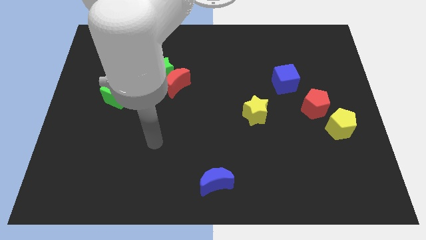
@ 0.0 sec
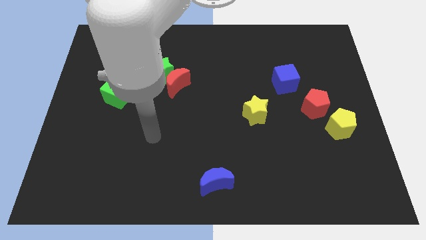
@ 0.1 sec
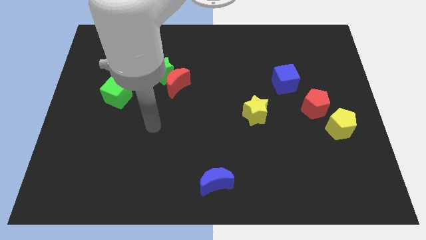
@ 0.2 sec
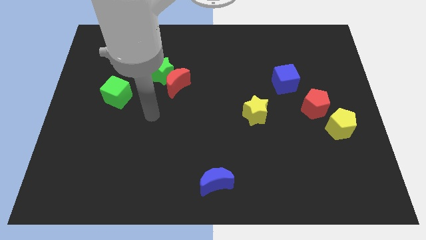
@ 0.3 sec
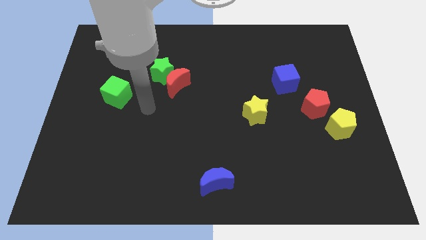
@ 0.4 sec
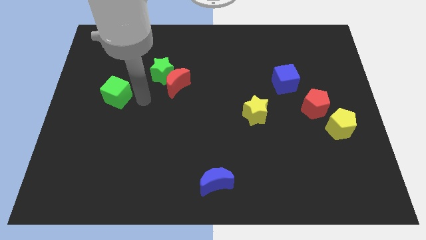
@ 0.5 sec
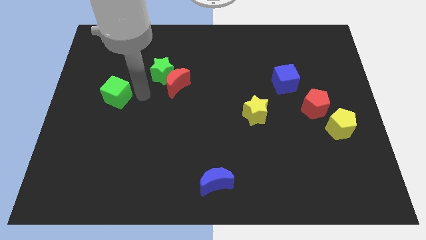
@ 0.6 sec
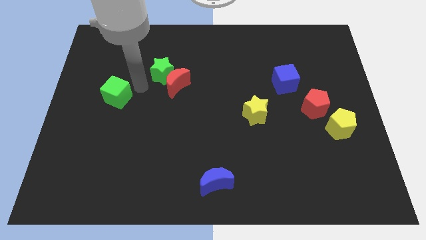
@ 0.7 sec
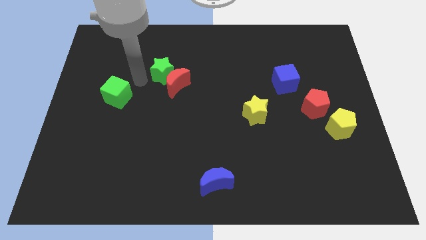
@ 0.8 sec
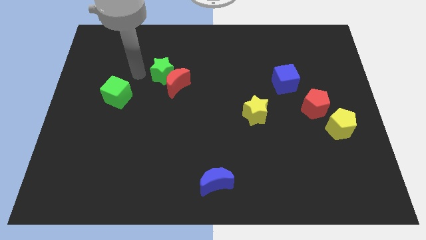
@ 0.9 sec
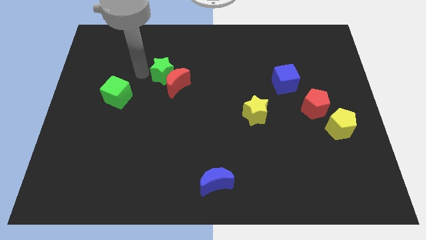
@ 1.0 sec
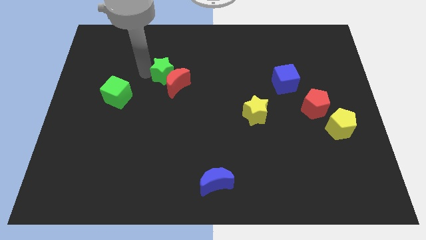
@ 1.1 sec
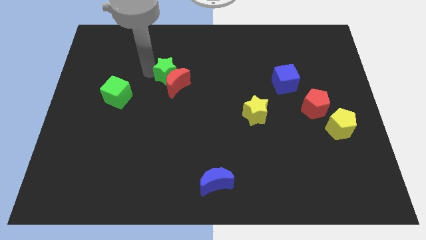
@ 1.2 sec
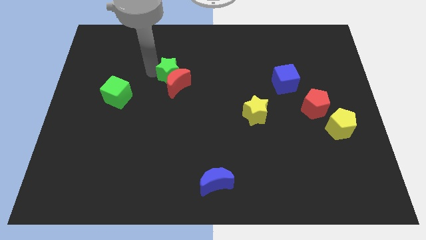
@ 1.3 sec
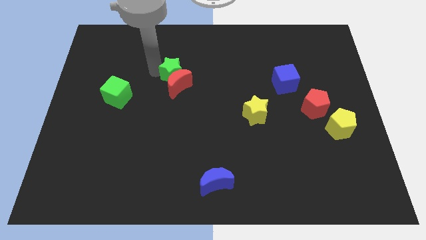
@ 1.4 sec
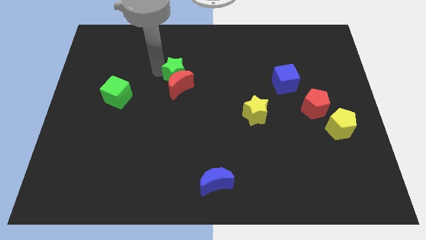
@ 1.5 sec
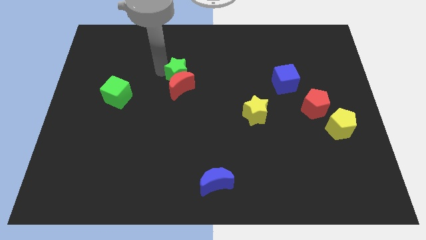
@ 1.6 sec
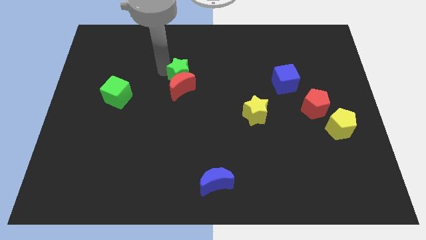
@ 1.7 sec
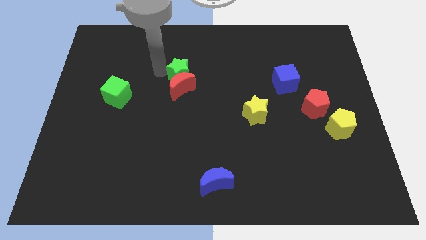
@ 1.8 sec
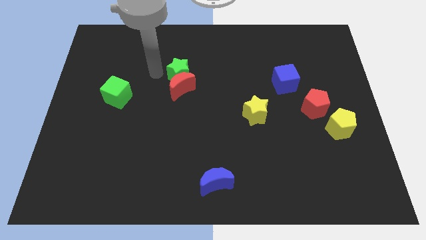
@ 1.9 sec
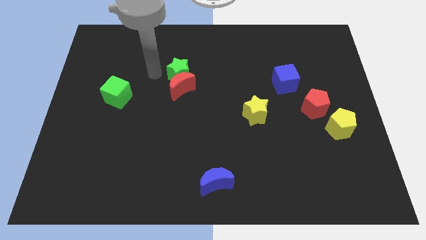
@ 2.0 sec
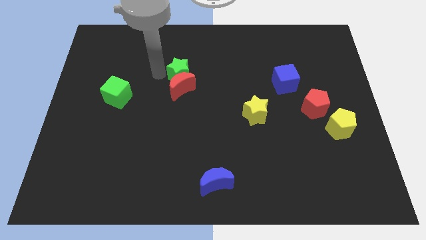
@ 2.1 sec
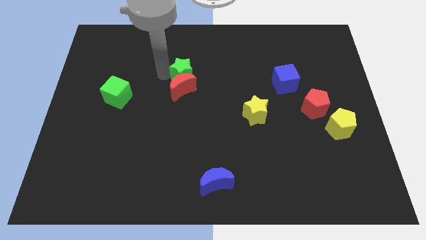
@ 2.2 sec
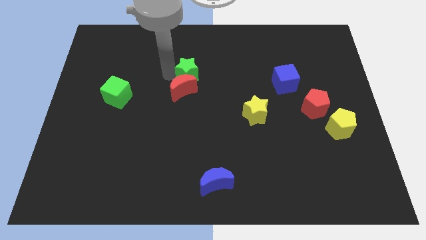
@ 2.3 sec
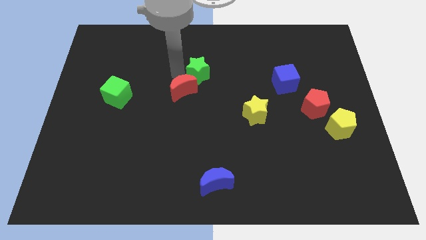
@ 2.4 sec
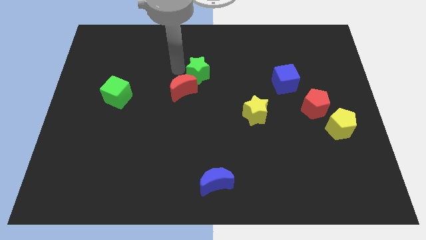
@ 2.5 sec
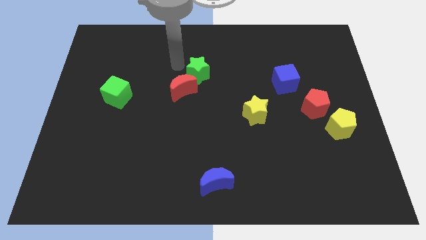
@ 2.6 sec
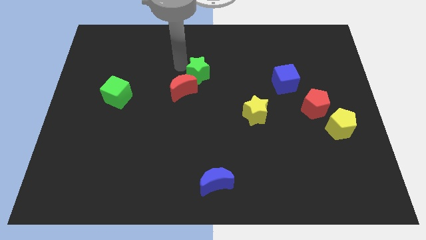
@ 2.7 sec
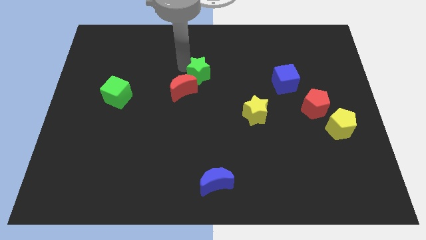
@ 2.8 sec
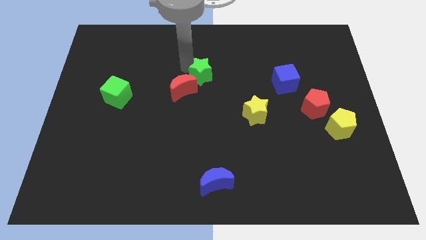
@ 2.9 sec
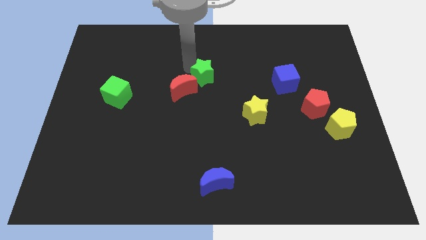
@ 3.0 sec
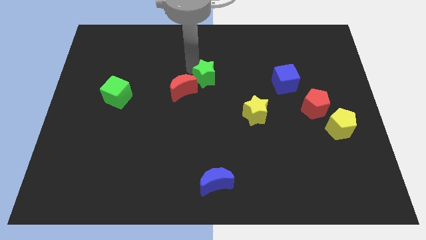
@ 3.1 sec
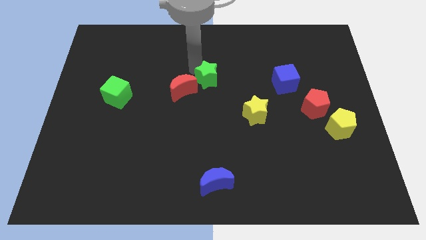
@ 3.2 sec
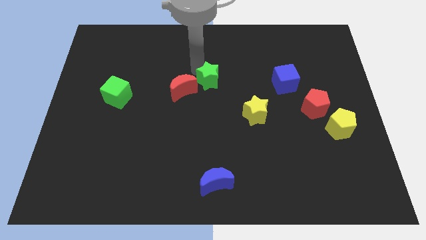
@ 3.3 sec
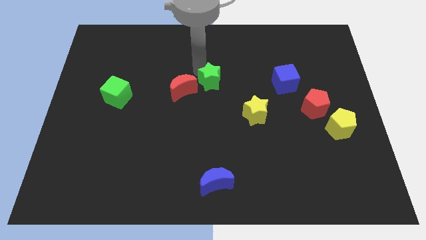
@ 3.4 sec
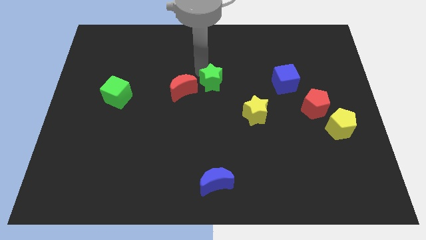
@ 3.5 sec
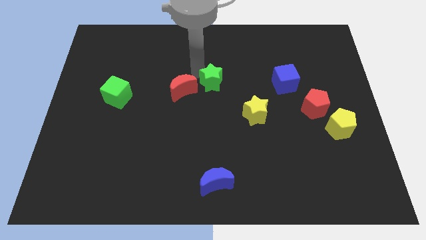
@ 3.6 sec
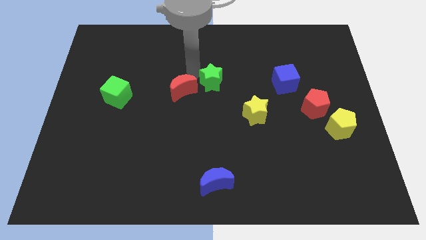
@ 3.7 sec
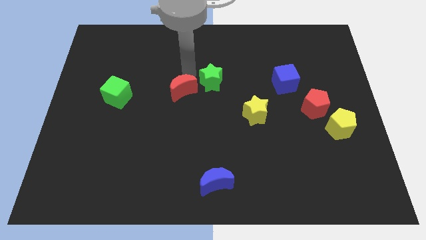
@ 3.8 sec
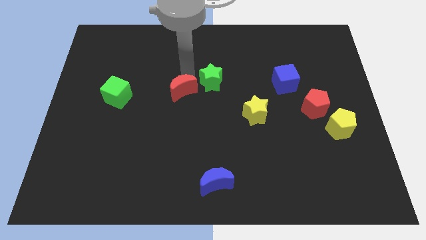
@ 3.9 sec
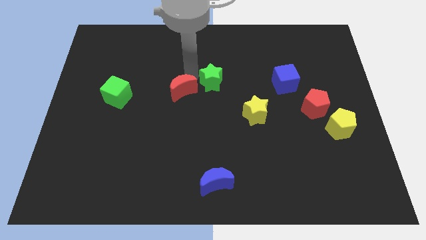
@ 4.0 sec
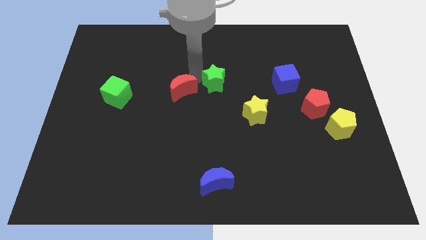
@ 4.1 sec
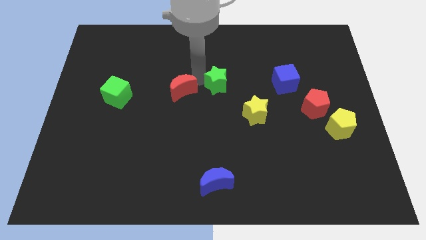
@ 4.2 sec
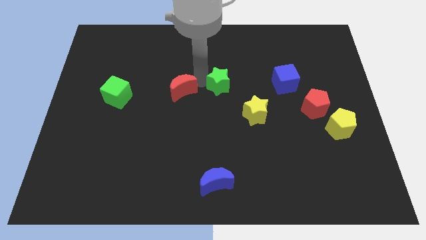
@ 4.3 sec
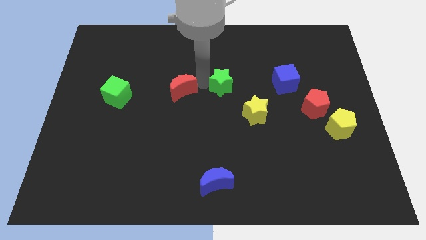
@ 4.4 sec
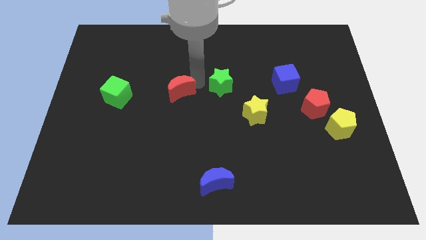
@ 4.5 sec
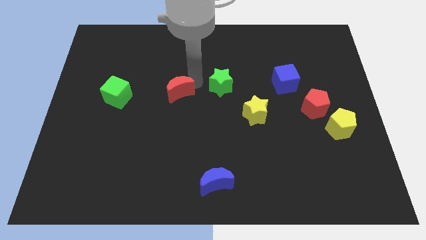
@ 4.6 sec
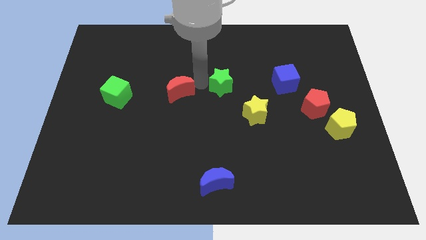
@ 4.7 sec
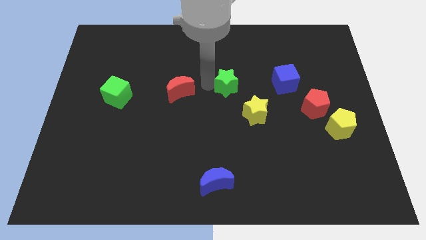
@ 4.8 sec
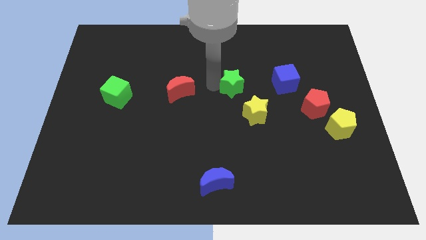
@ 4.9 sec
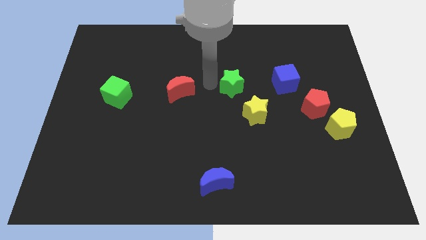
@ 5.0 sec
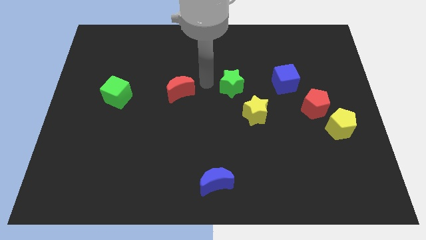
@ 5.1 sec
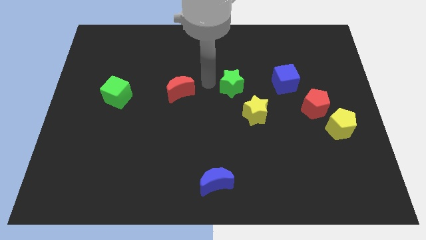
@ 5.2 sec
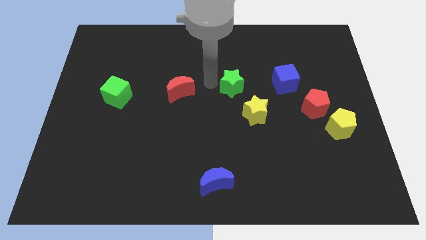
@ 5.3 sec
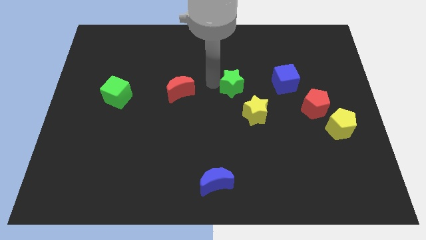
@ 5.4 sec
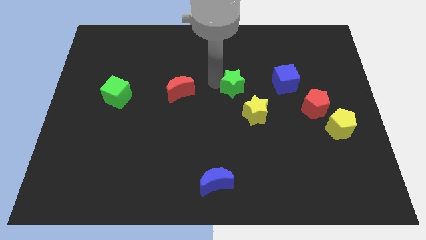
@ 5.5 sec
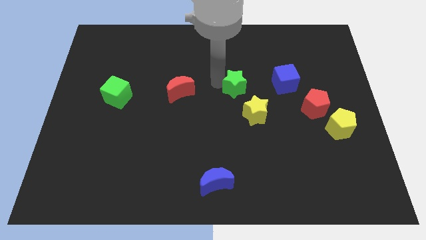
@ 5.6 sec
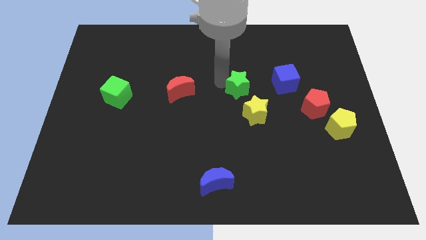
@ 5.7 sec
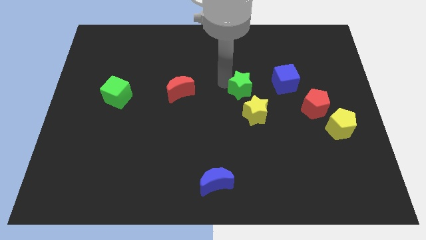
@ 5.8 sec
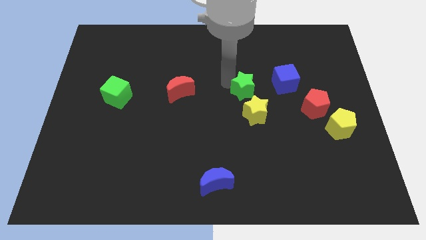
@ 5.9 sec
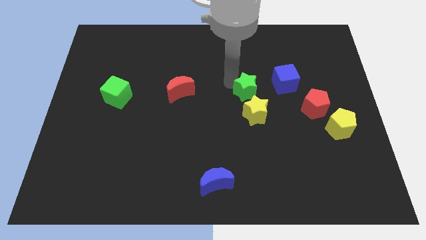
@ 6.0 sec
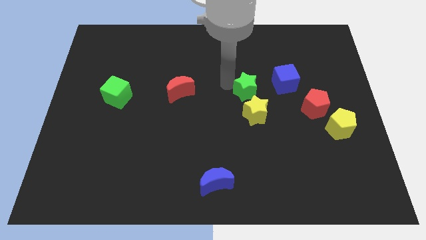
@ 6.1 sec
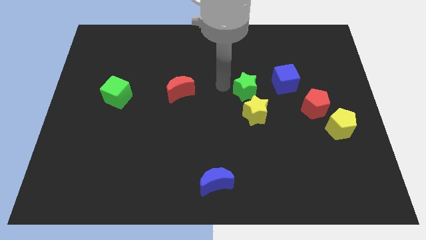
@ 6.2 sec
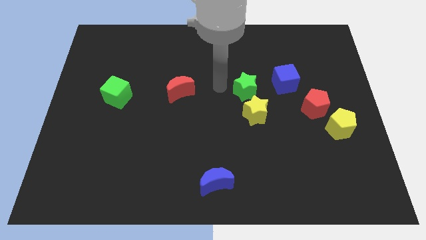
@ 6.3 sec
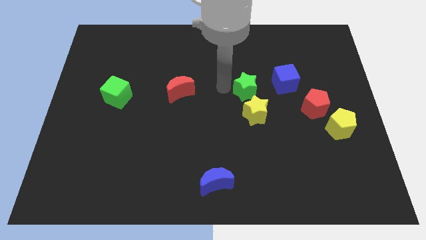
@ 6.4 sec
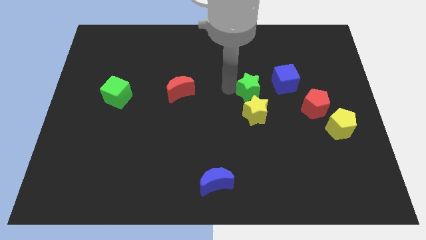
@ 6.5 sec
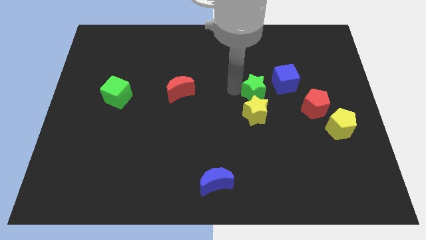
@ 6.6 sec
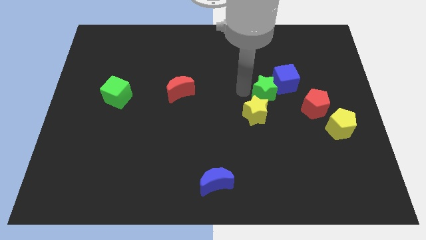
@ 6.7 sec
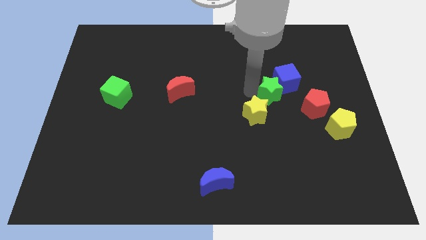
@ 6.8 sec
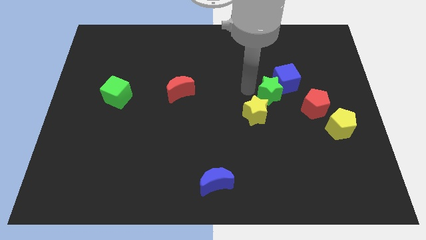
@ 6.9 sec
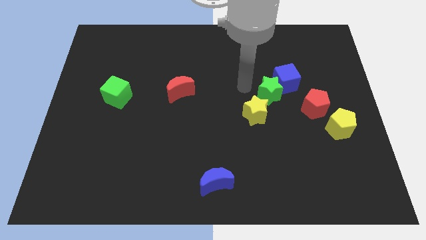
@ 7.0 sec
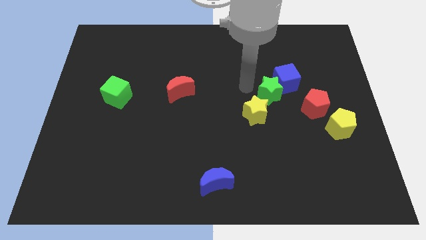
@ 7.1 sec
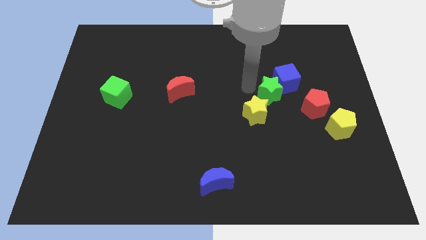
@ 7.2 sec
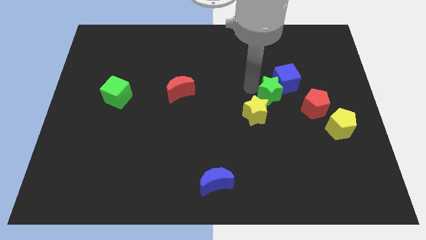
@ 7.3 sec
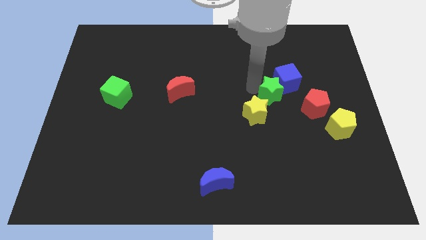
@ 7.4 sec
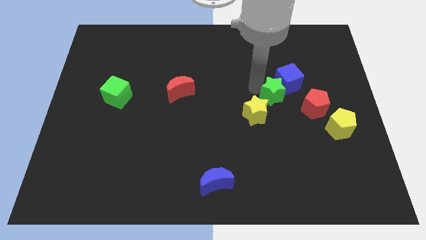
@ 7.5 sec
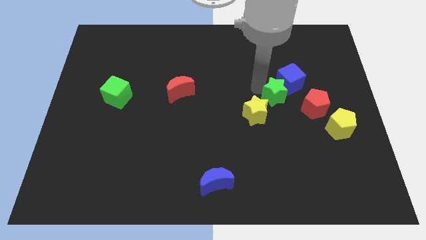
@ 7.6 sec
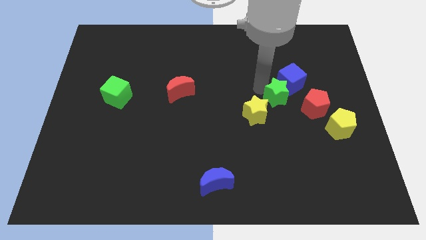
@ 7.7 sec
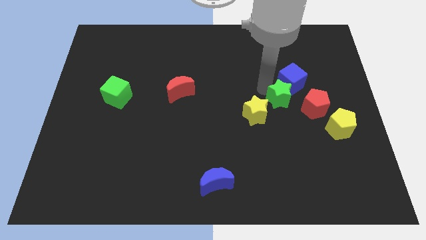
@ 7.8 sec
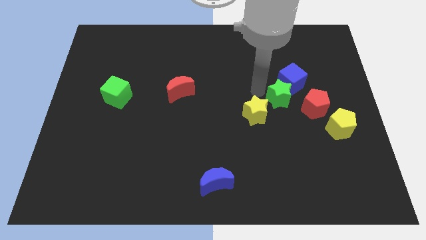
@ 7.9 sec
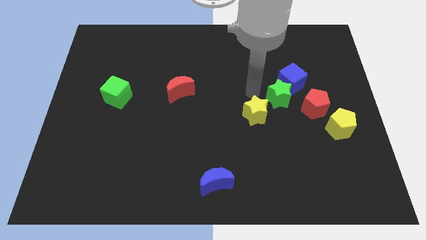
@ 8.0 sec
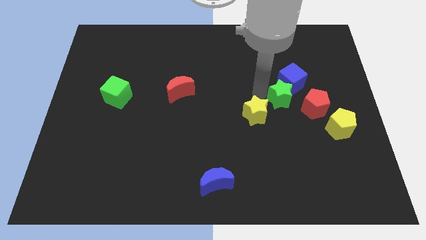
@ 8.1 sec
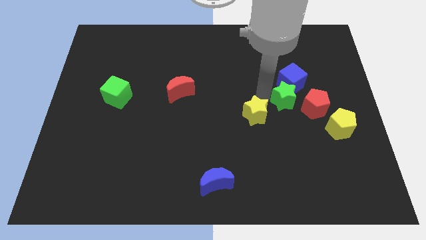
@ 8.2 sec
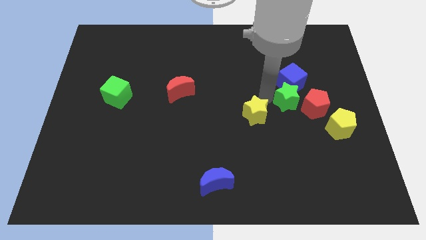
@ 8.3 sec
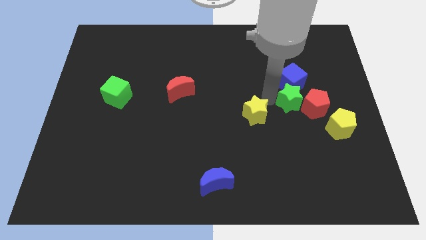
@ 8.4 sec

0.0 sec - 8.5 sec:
slide the green star next to the red pentagon
